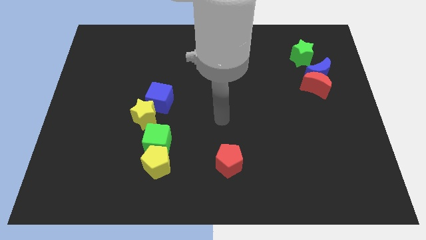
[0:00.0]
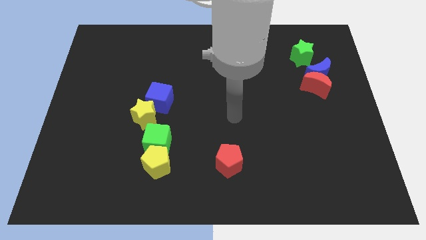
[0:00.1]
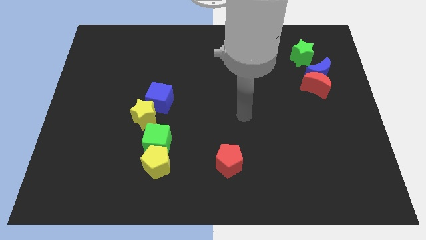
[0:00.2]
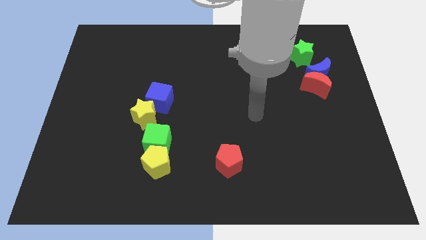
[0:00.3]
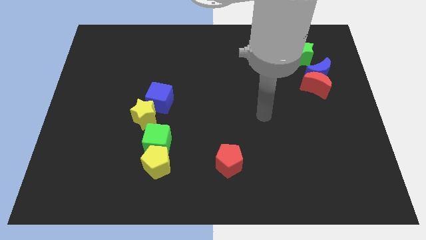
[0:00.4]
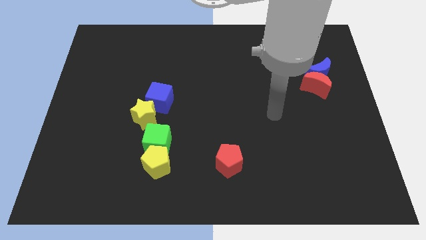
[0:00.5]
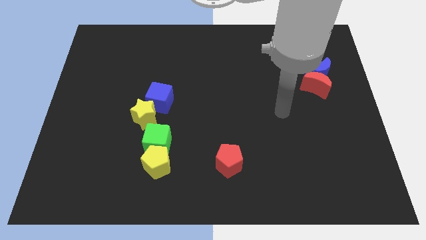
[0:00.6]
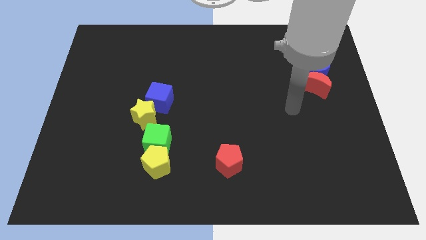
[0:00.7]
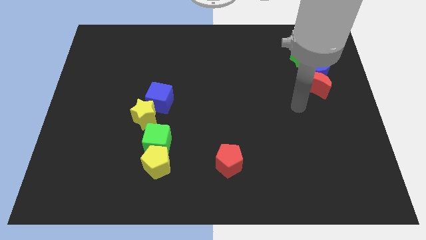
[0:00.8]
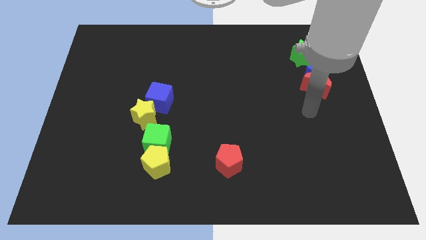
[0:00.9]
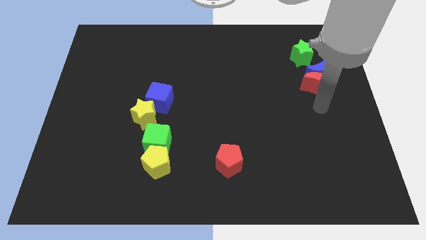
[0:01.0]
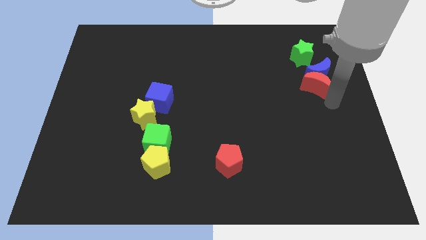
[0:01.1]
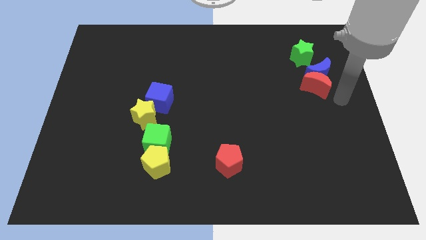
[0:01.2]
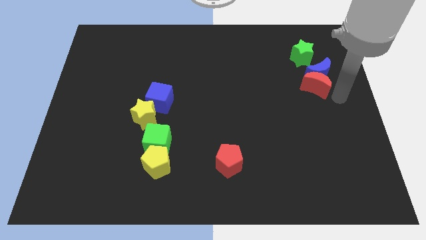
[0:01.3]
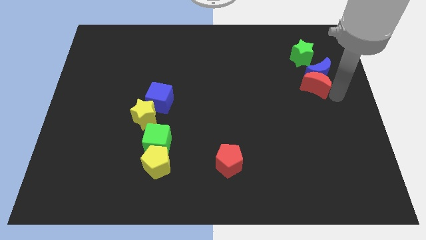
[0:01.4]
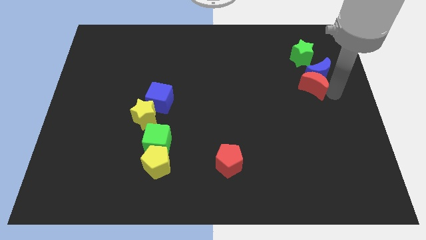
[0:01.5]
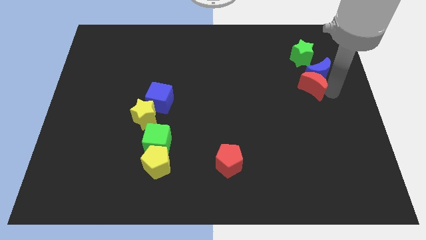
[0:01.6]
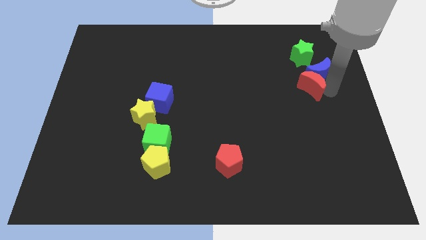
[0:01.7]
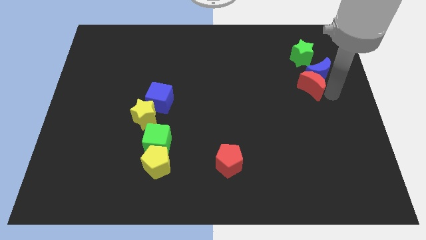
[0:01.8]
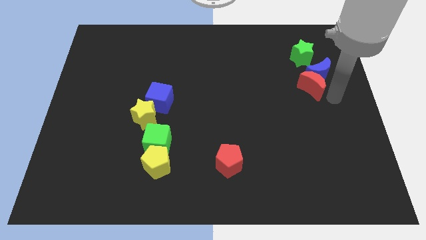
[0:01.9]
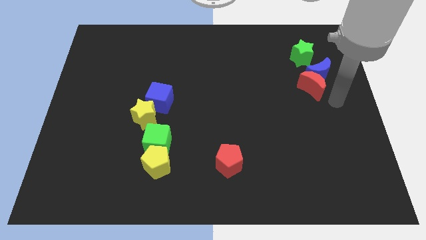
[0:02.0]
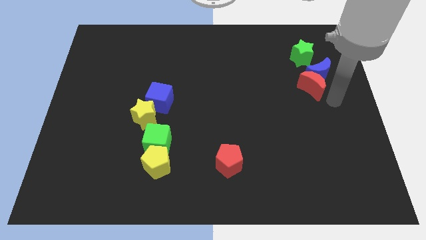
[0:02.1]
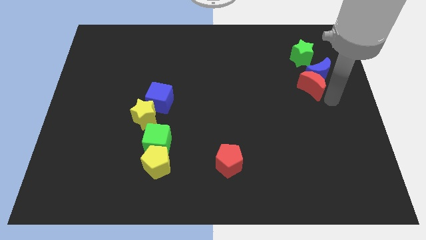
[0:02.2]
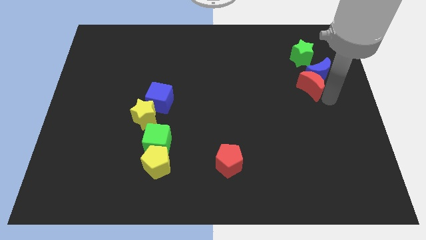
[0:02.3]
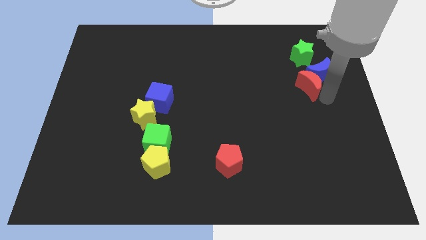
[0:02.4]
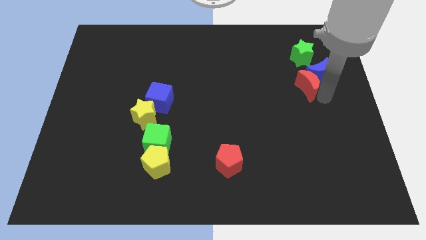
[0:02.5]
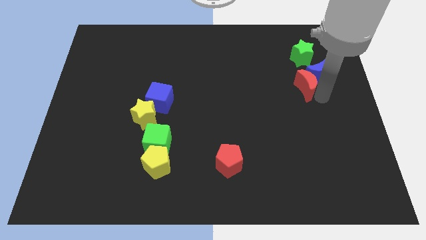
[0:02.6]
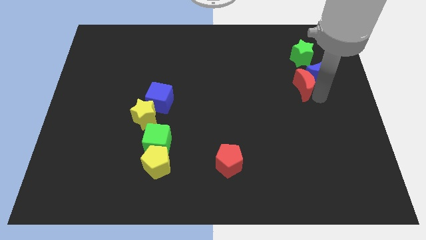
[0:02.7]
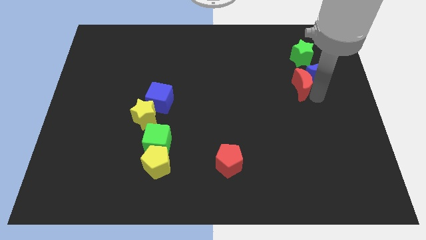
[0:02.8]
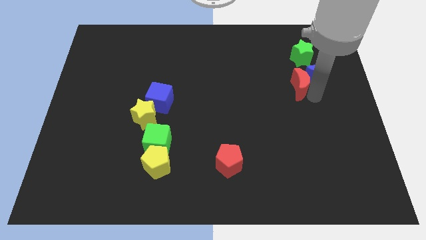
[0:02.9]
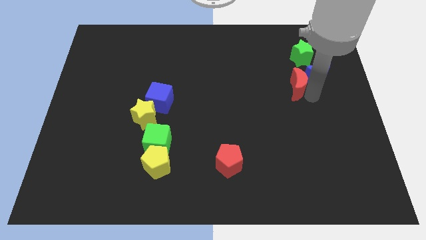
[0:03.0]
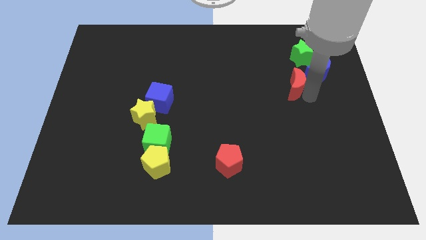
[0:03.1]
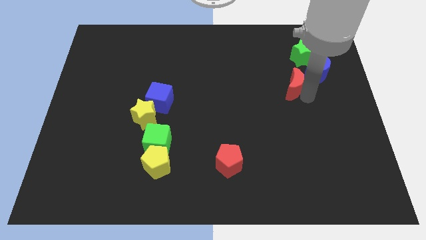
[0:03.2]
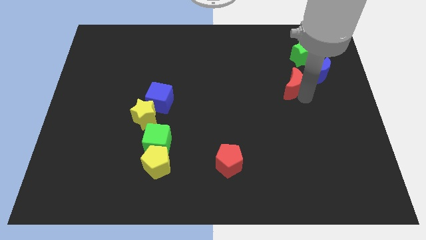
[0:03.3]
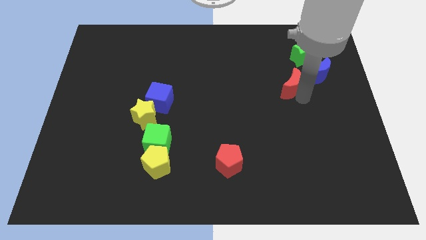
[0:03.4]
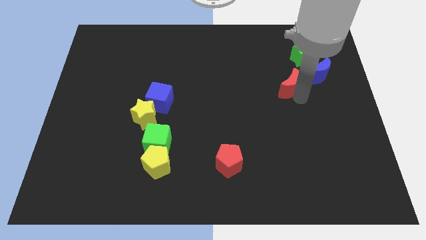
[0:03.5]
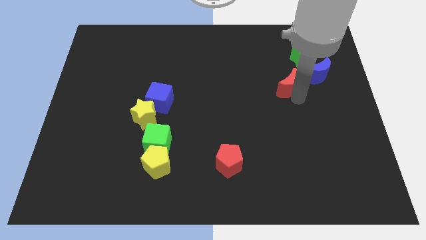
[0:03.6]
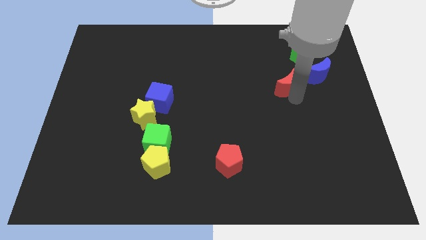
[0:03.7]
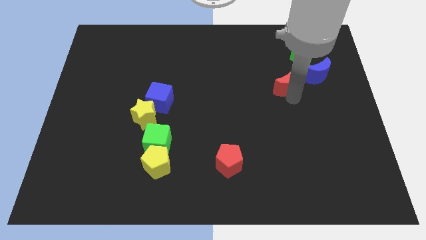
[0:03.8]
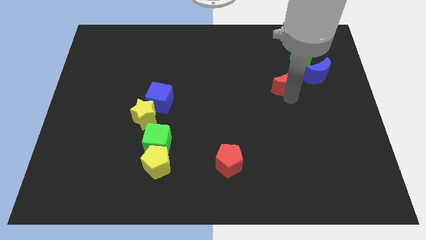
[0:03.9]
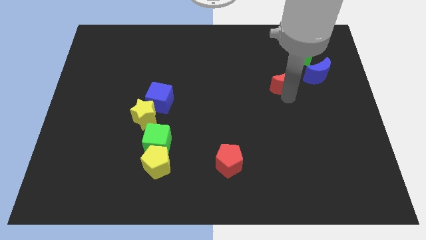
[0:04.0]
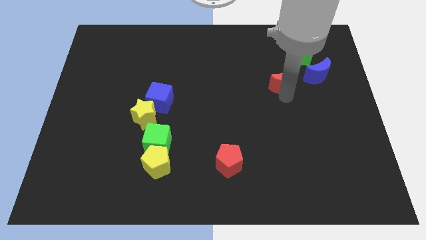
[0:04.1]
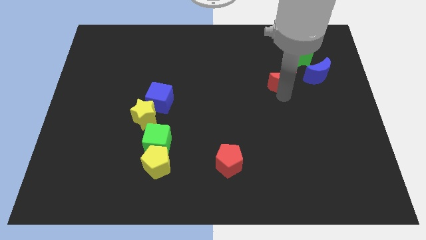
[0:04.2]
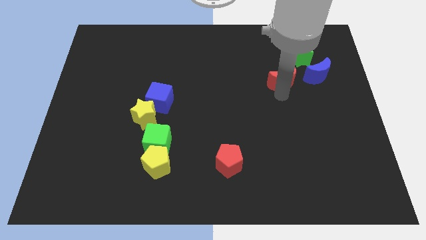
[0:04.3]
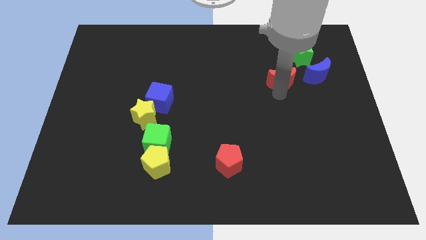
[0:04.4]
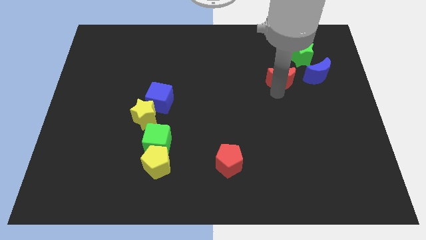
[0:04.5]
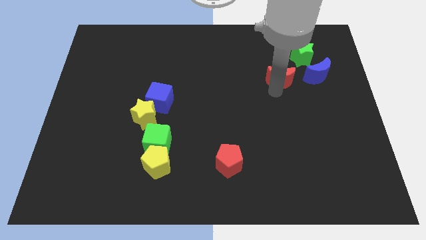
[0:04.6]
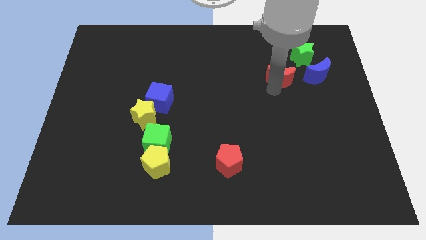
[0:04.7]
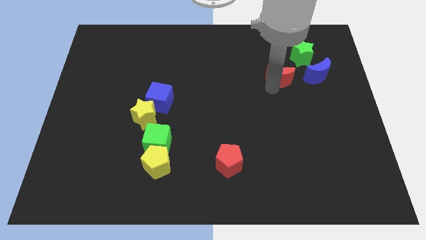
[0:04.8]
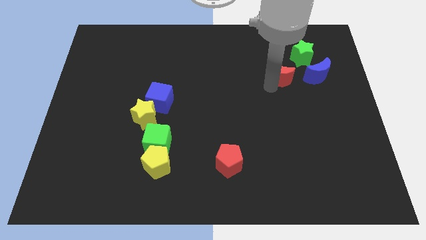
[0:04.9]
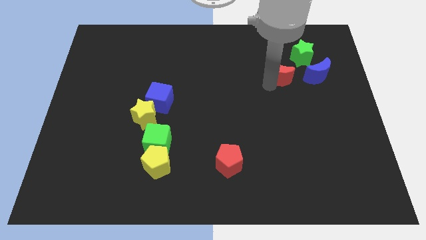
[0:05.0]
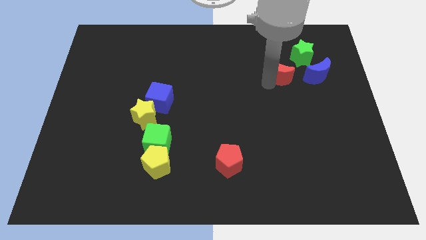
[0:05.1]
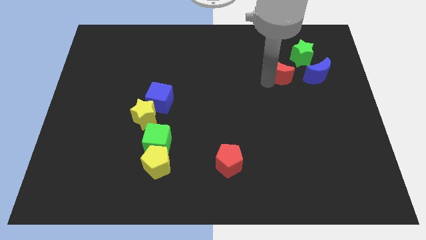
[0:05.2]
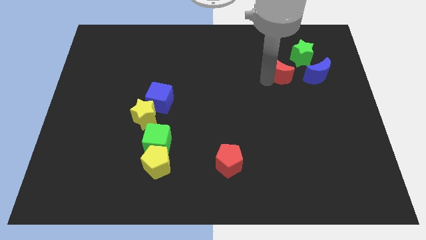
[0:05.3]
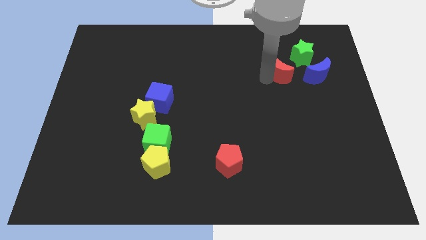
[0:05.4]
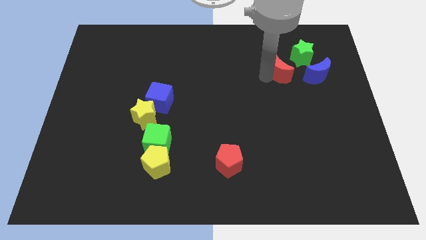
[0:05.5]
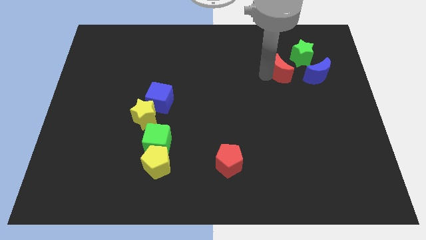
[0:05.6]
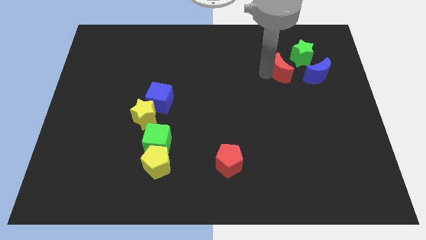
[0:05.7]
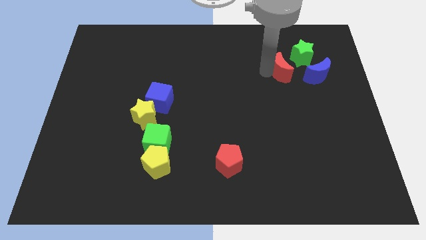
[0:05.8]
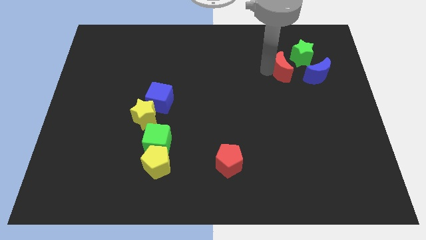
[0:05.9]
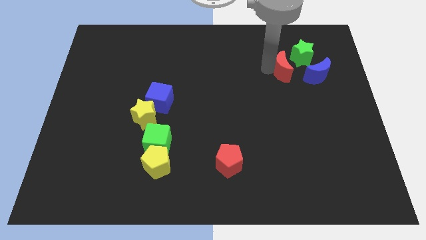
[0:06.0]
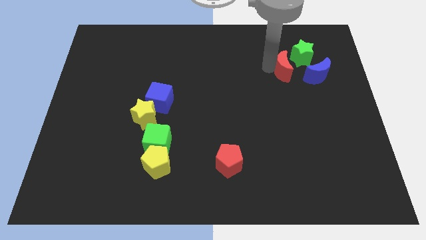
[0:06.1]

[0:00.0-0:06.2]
move the red moon to the top left of the blue moon

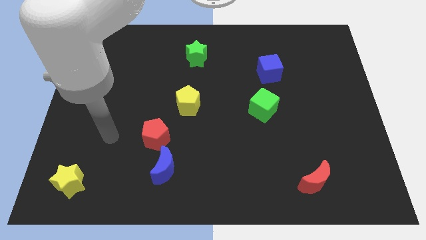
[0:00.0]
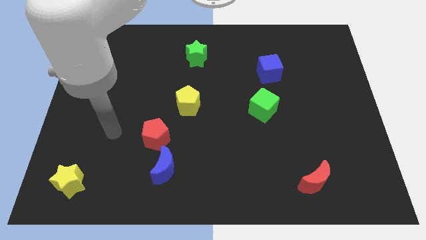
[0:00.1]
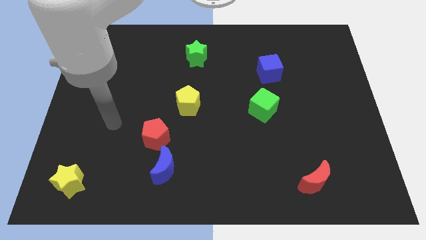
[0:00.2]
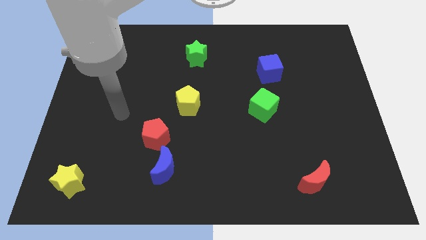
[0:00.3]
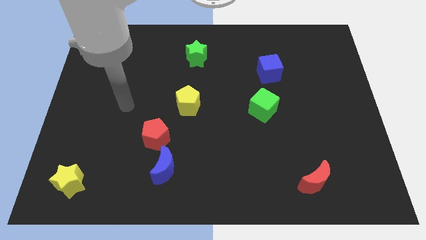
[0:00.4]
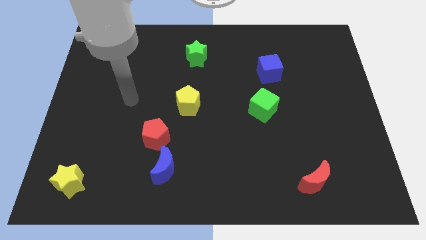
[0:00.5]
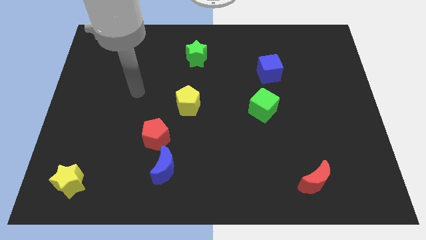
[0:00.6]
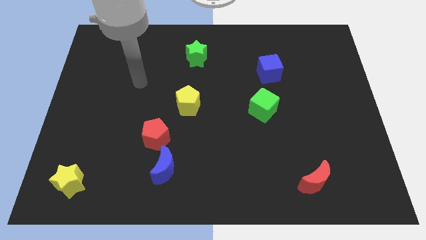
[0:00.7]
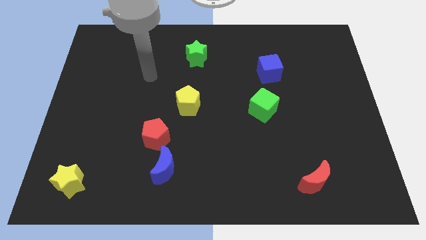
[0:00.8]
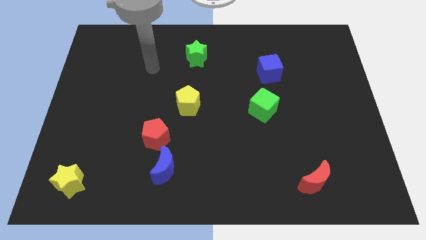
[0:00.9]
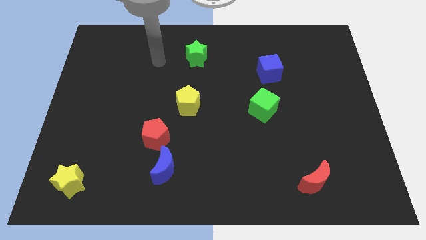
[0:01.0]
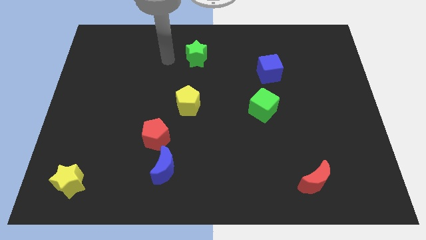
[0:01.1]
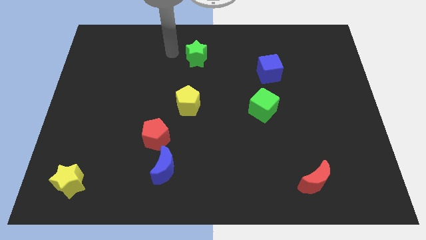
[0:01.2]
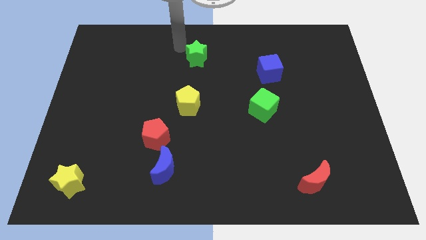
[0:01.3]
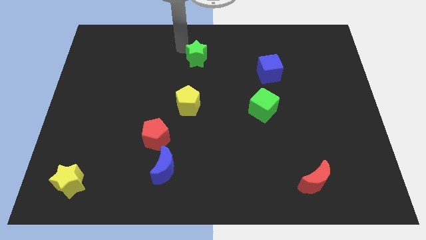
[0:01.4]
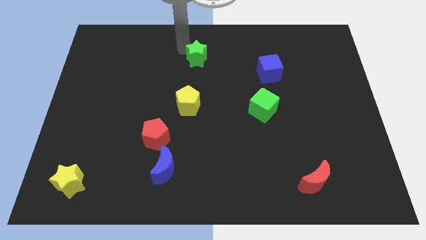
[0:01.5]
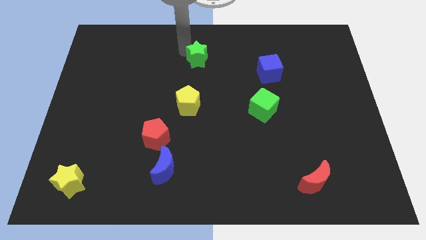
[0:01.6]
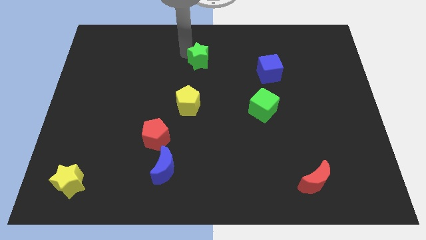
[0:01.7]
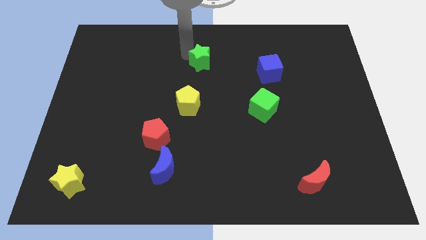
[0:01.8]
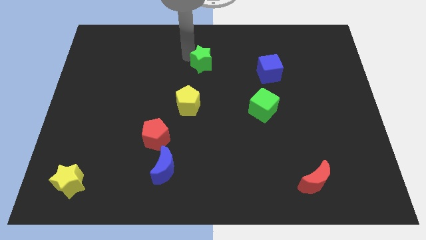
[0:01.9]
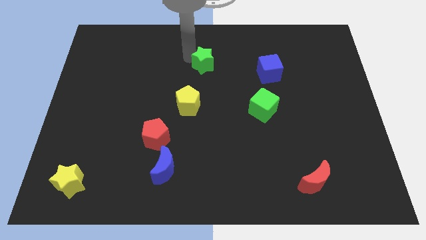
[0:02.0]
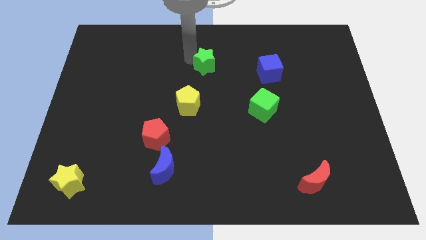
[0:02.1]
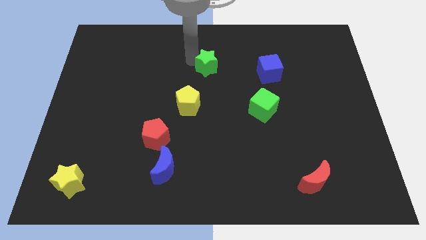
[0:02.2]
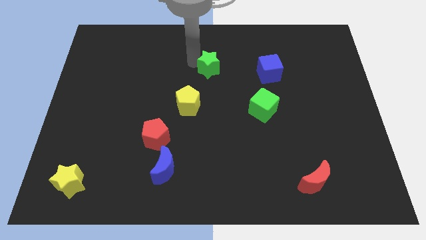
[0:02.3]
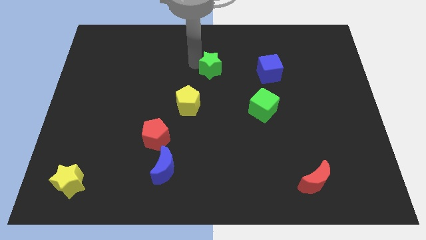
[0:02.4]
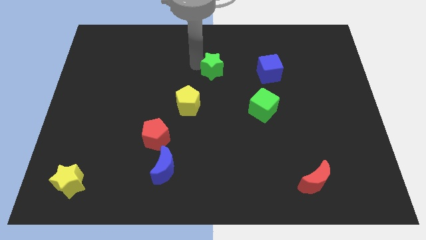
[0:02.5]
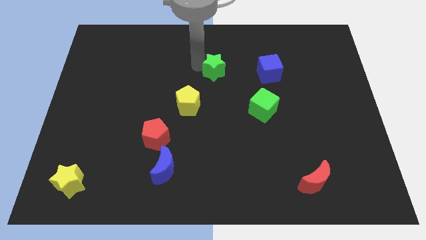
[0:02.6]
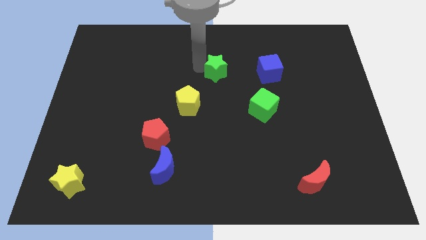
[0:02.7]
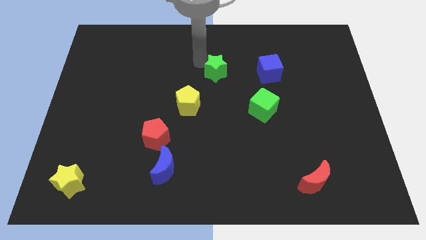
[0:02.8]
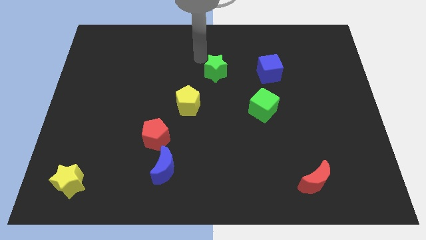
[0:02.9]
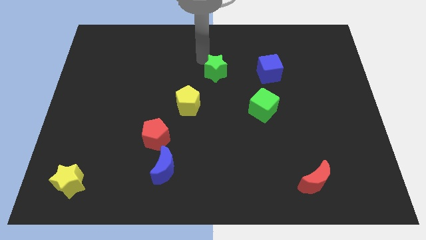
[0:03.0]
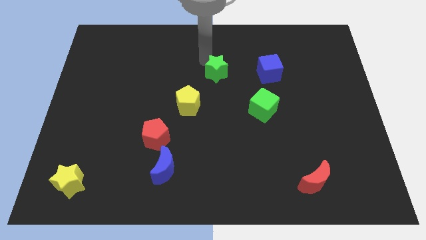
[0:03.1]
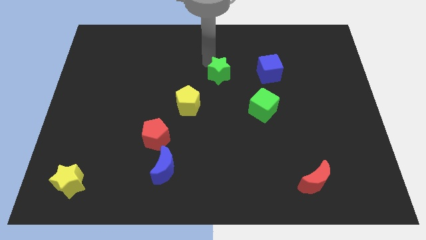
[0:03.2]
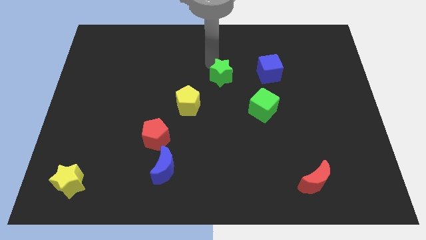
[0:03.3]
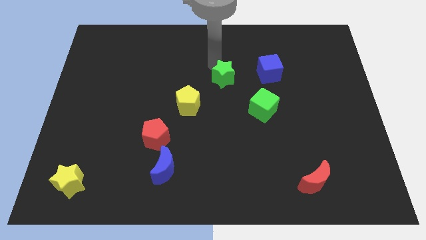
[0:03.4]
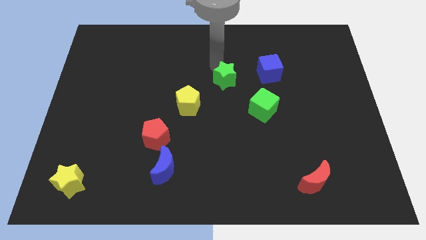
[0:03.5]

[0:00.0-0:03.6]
push the green star to the top left of the green cube
